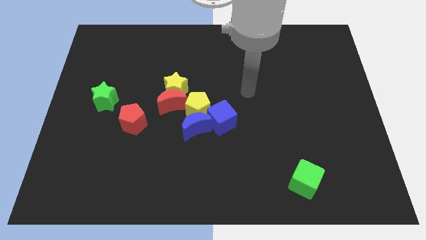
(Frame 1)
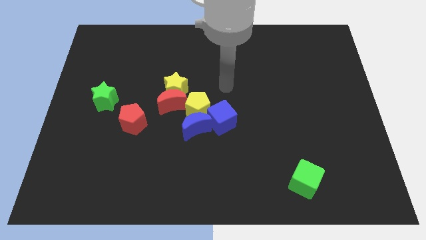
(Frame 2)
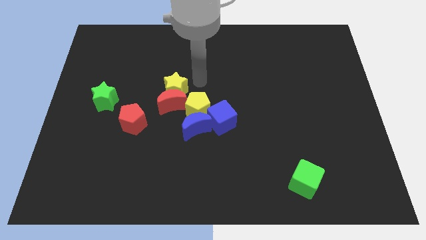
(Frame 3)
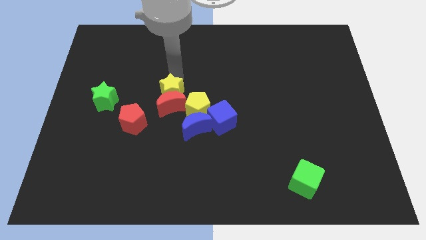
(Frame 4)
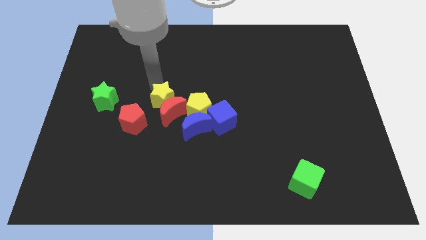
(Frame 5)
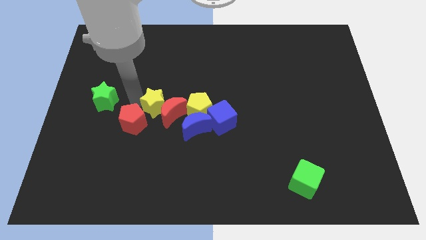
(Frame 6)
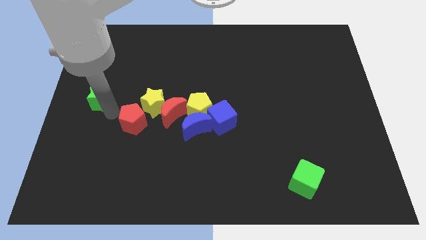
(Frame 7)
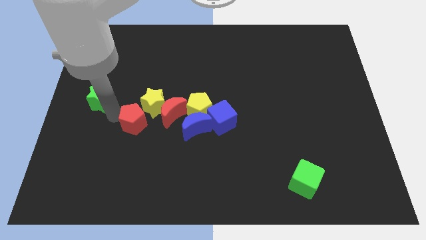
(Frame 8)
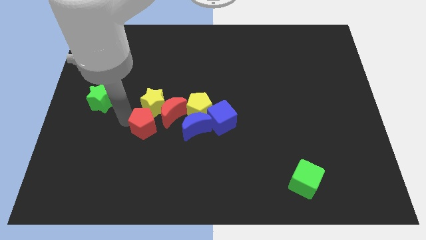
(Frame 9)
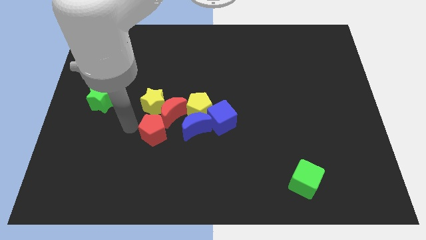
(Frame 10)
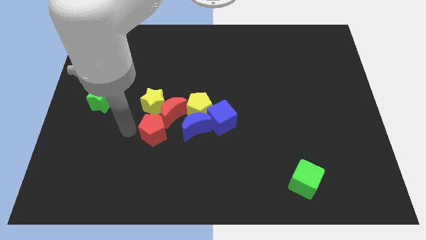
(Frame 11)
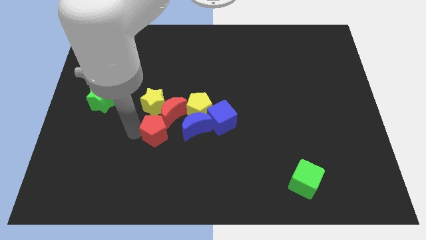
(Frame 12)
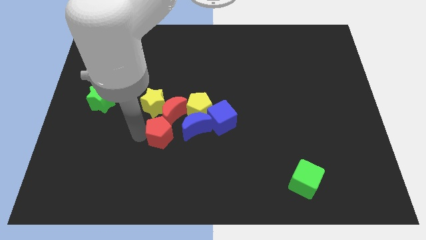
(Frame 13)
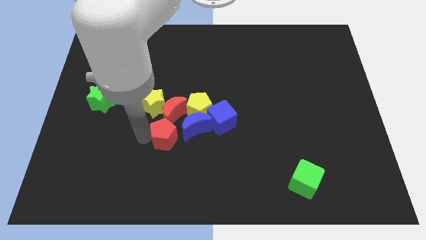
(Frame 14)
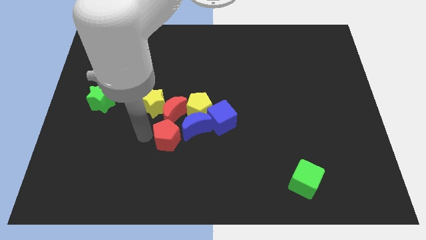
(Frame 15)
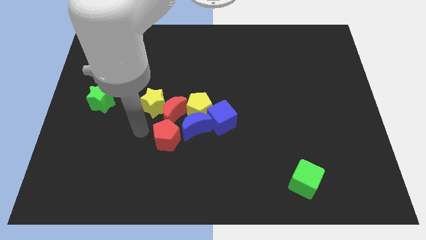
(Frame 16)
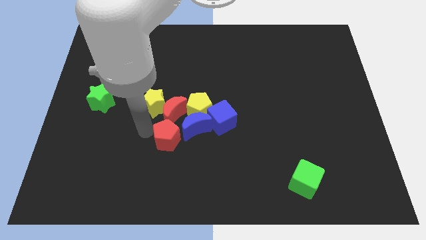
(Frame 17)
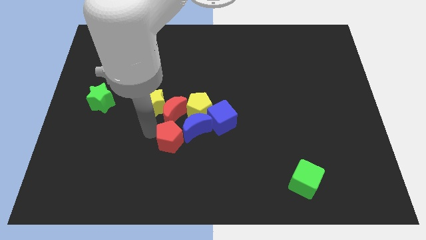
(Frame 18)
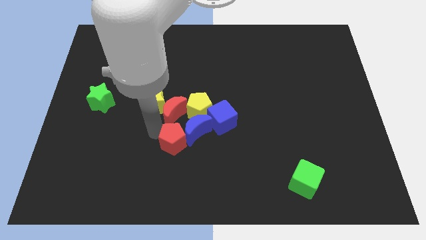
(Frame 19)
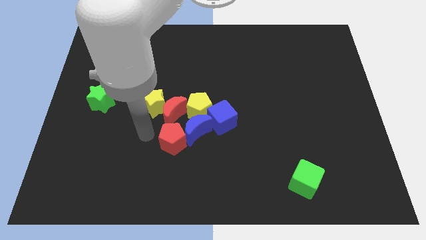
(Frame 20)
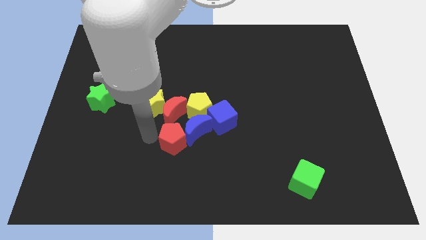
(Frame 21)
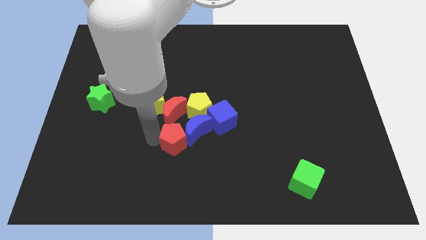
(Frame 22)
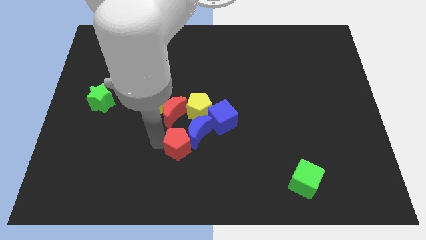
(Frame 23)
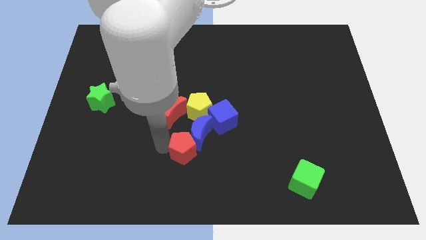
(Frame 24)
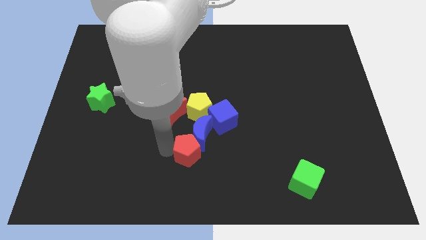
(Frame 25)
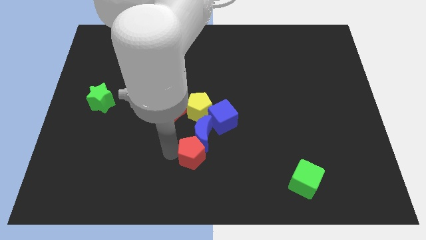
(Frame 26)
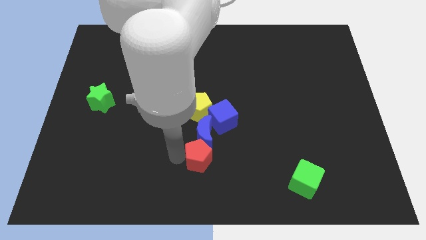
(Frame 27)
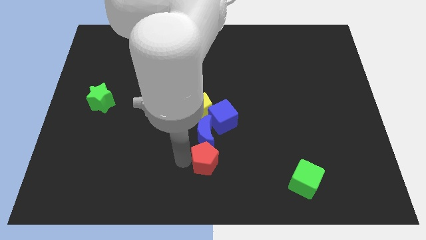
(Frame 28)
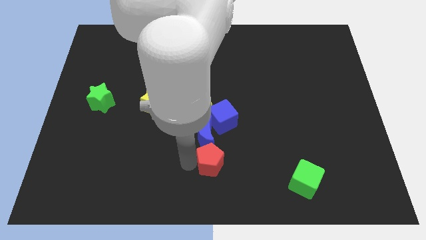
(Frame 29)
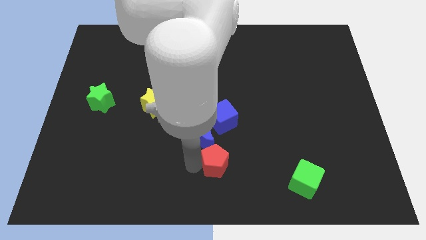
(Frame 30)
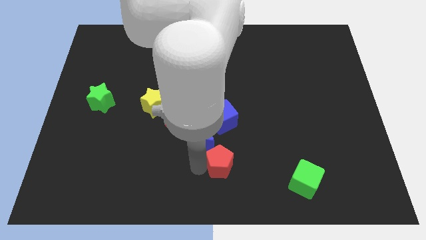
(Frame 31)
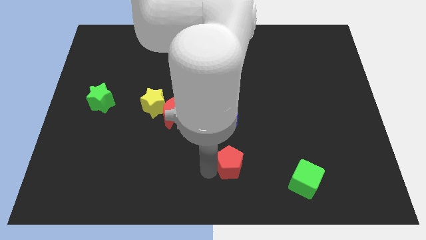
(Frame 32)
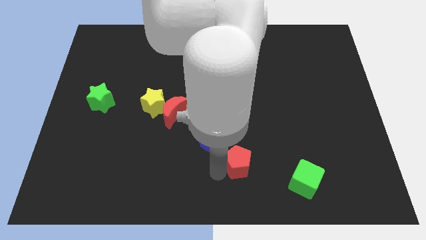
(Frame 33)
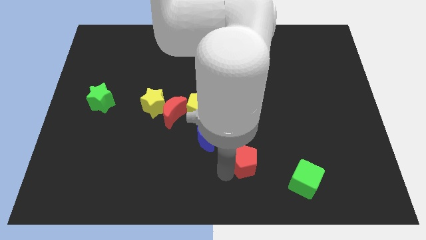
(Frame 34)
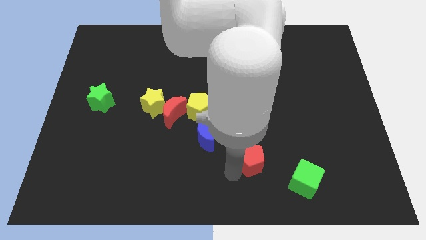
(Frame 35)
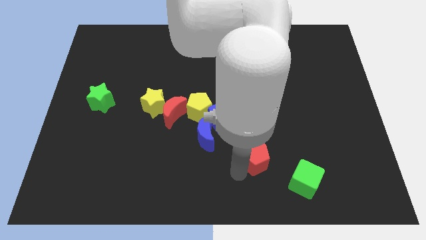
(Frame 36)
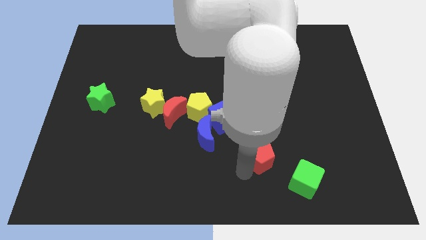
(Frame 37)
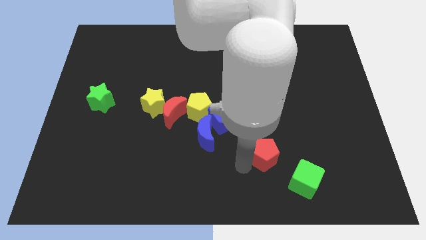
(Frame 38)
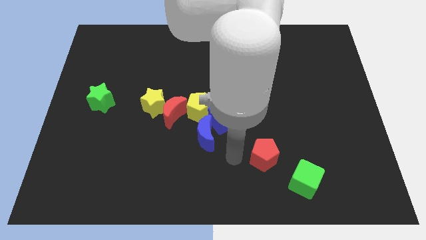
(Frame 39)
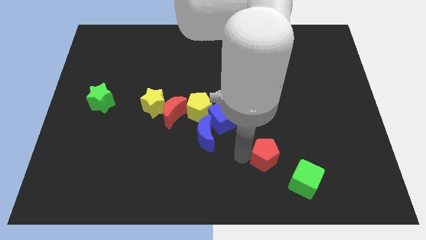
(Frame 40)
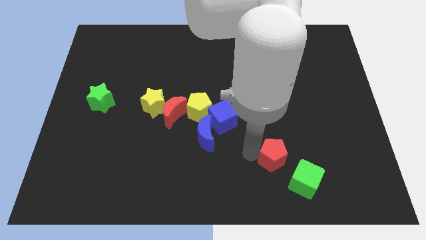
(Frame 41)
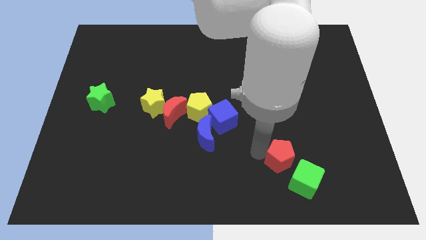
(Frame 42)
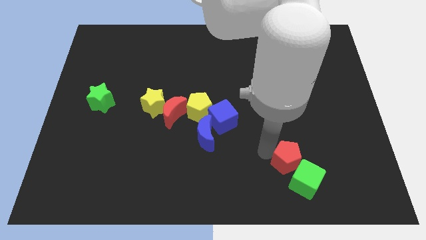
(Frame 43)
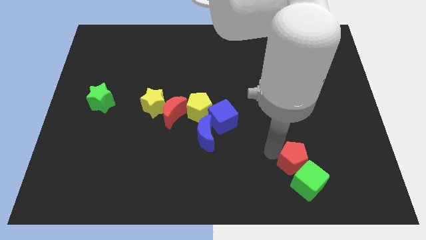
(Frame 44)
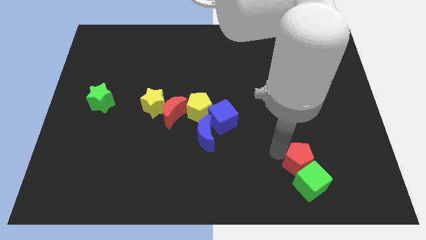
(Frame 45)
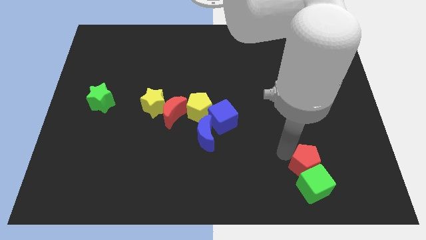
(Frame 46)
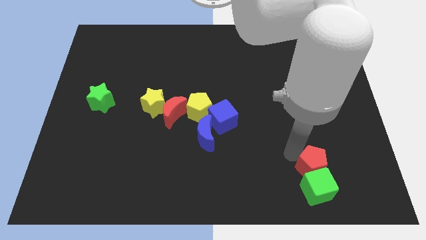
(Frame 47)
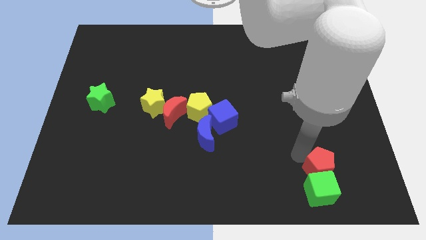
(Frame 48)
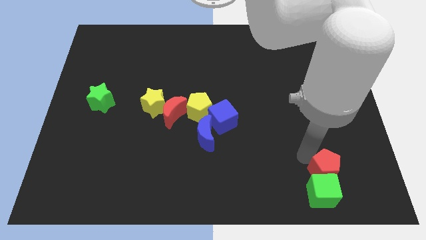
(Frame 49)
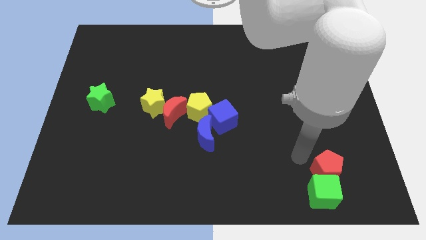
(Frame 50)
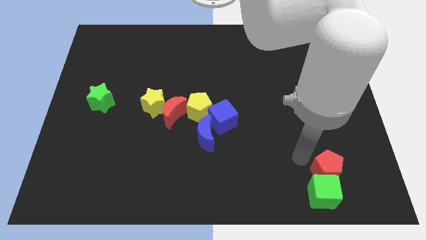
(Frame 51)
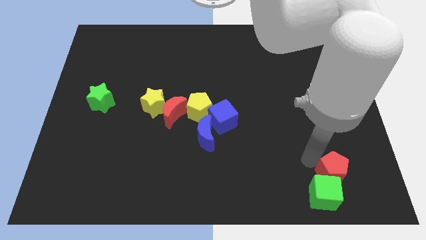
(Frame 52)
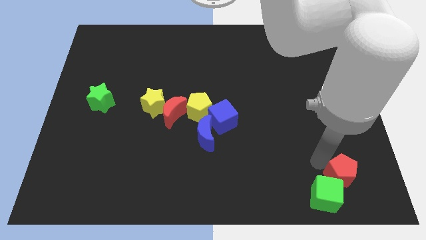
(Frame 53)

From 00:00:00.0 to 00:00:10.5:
slide the red pentagon to the right side of the green cube

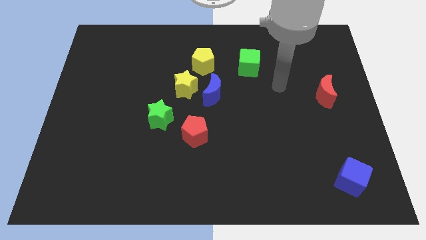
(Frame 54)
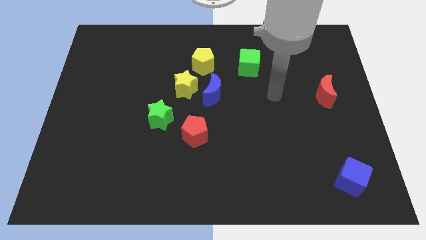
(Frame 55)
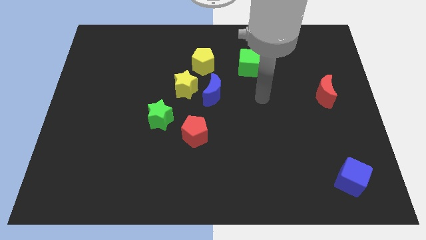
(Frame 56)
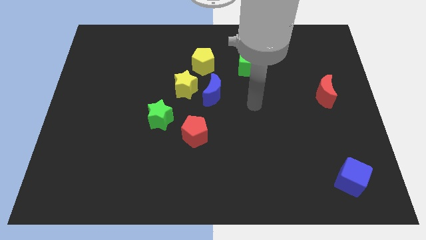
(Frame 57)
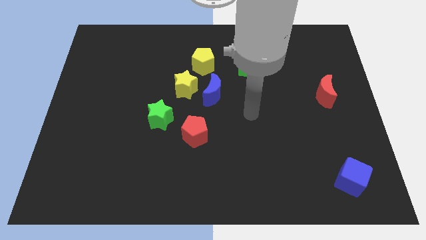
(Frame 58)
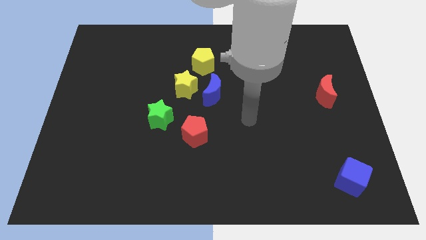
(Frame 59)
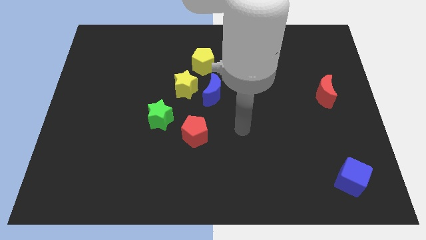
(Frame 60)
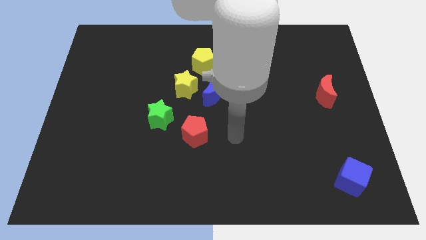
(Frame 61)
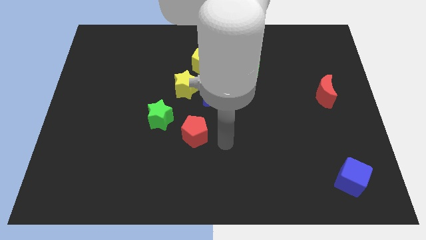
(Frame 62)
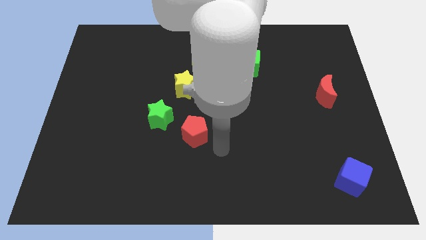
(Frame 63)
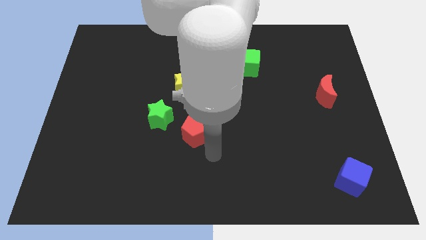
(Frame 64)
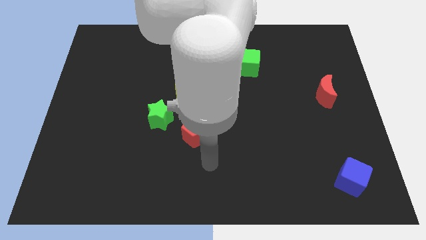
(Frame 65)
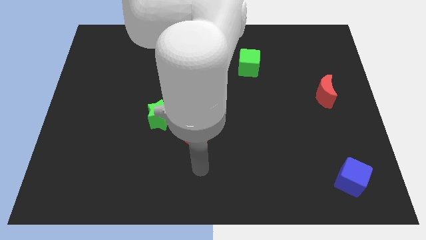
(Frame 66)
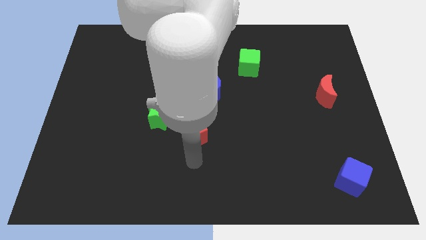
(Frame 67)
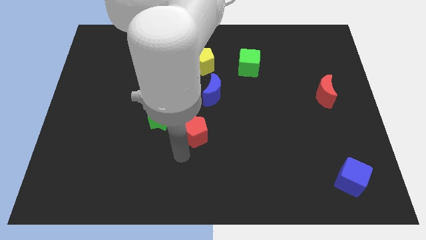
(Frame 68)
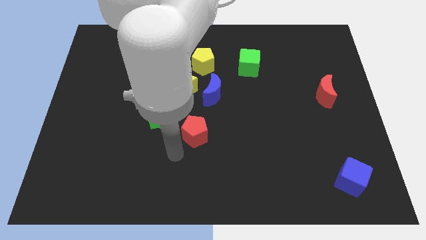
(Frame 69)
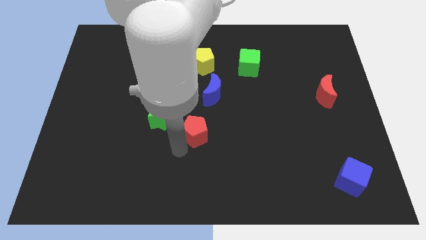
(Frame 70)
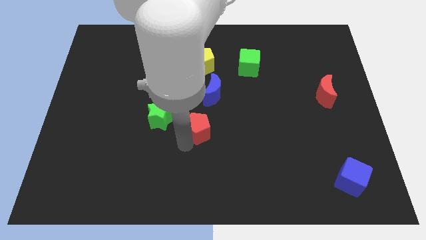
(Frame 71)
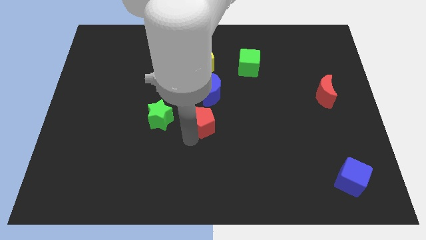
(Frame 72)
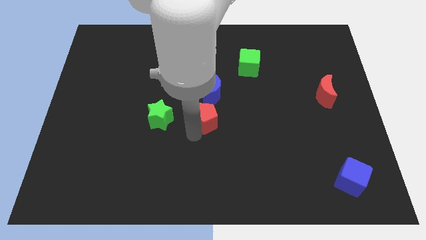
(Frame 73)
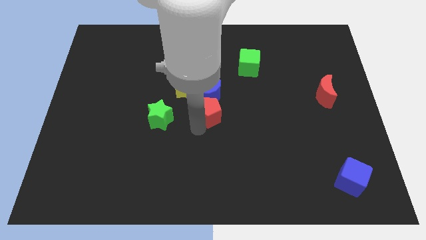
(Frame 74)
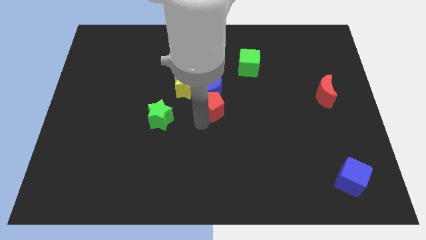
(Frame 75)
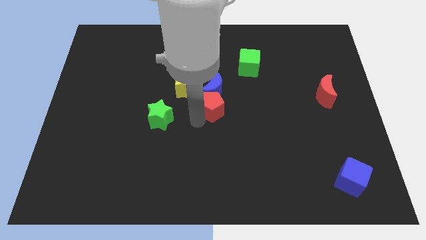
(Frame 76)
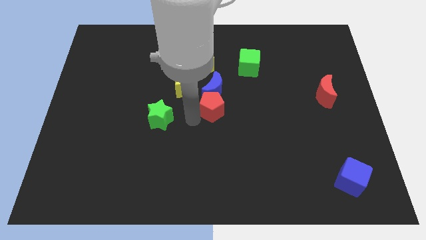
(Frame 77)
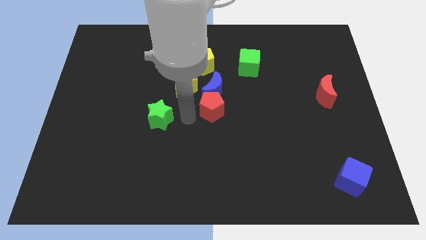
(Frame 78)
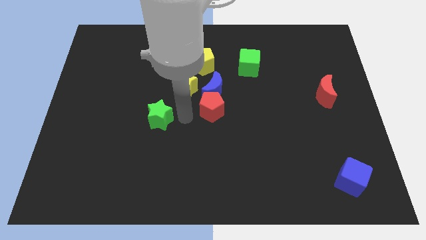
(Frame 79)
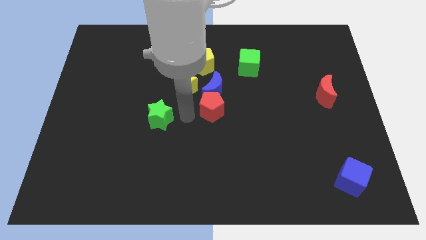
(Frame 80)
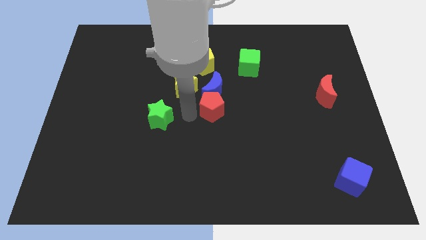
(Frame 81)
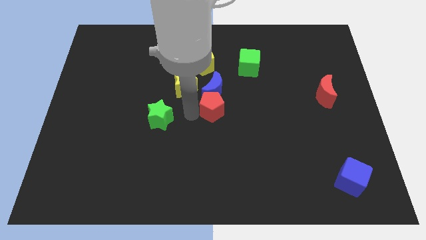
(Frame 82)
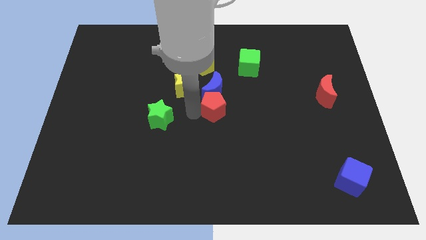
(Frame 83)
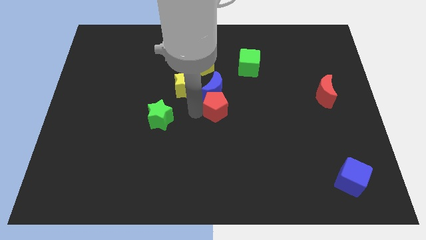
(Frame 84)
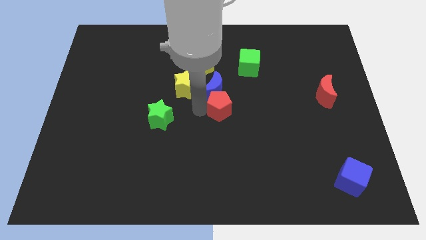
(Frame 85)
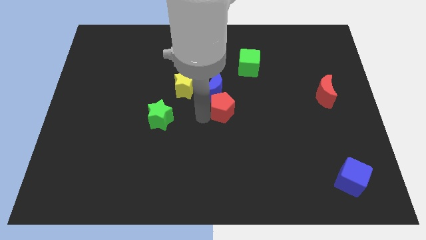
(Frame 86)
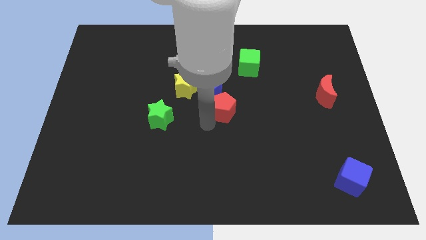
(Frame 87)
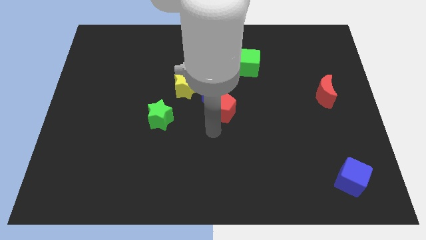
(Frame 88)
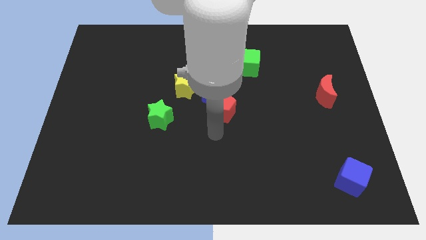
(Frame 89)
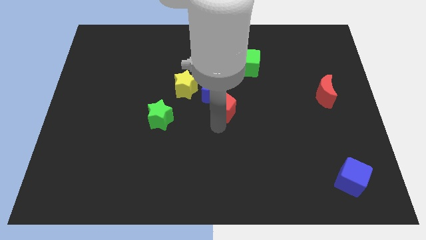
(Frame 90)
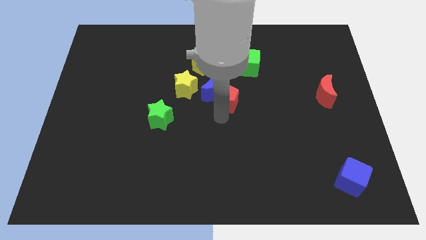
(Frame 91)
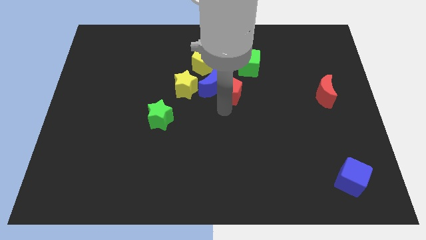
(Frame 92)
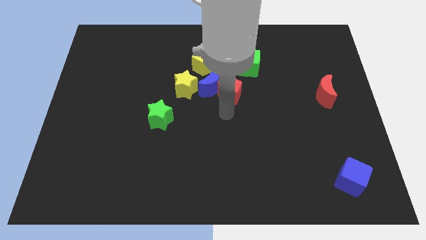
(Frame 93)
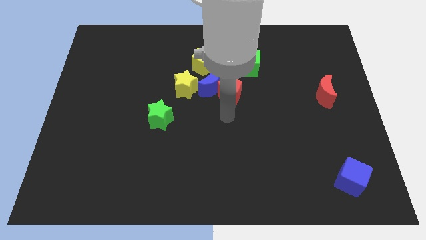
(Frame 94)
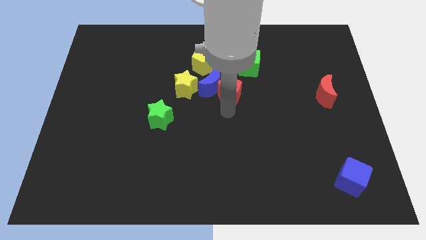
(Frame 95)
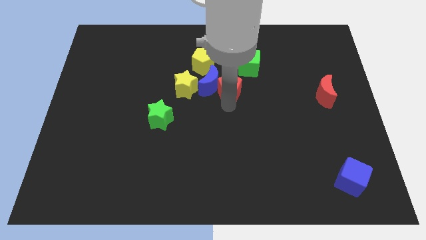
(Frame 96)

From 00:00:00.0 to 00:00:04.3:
push the red pentagon to the top right of the blue moon
